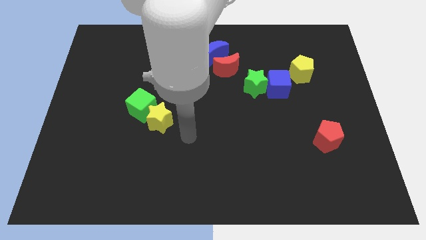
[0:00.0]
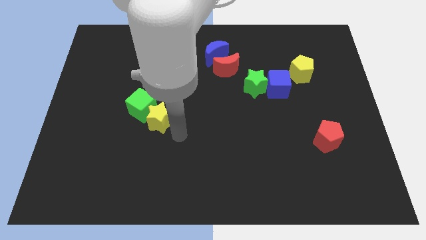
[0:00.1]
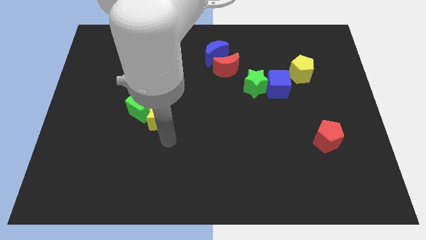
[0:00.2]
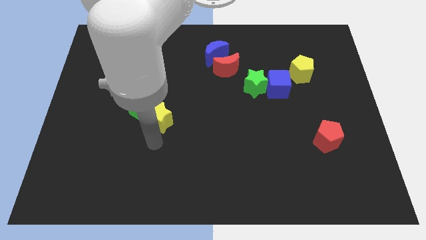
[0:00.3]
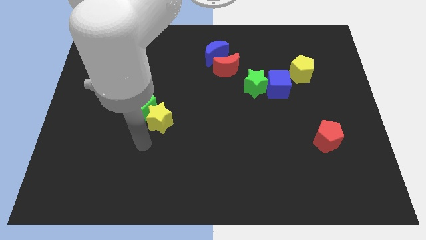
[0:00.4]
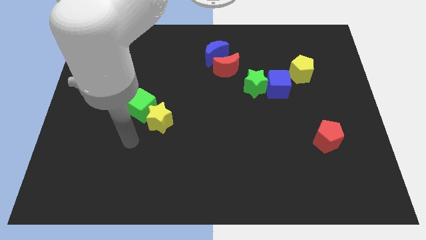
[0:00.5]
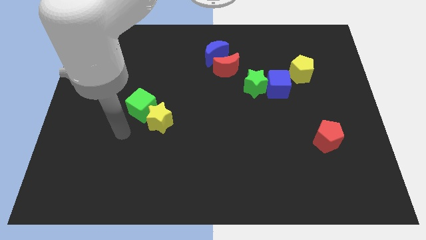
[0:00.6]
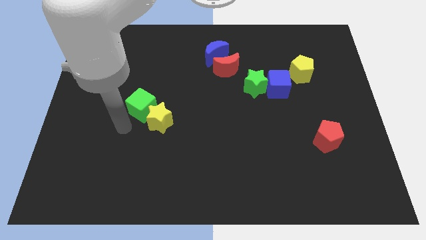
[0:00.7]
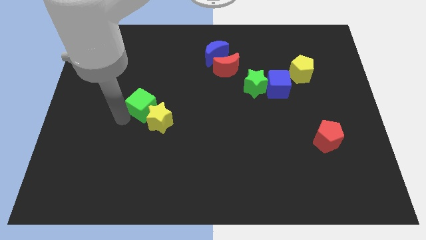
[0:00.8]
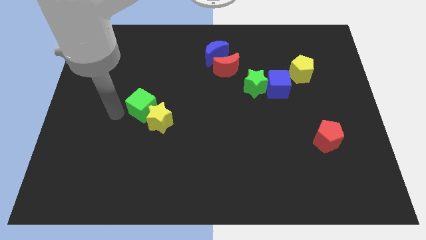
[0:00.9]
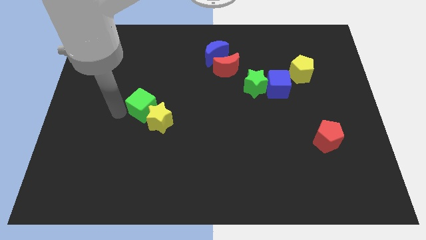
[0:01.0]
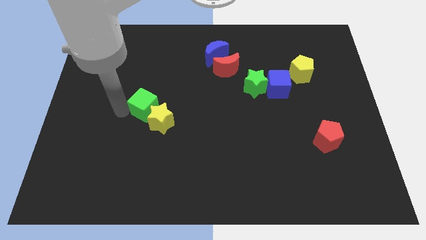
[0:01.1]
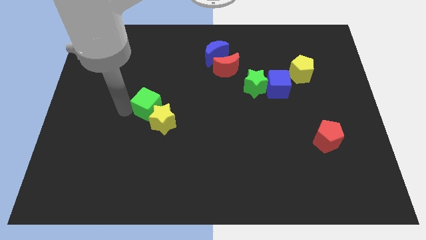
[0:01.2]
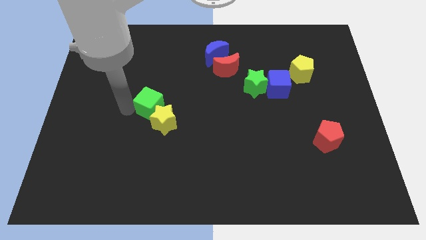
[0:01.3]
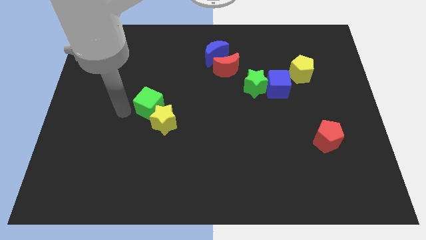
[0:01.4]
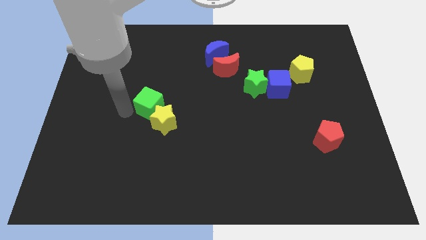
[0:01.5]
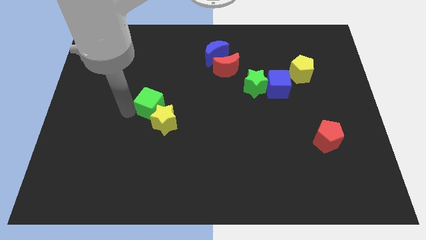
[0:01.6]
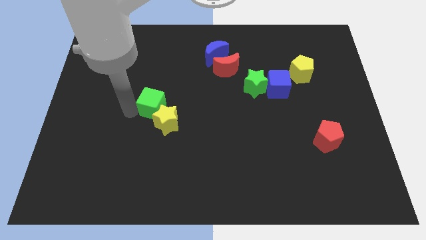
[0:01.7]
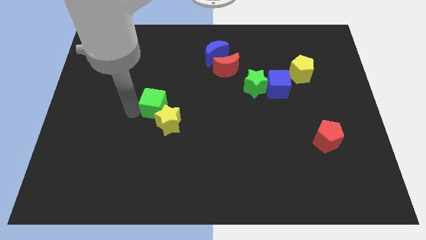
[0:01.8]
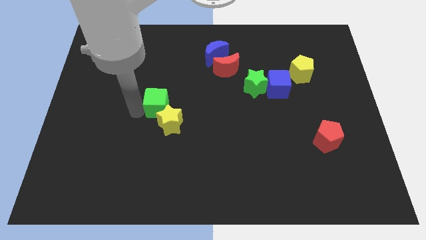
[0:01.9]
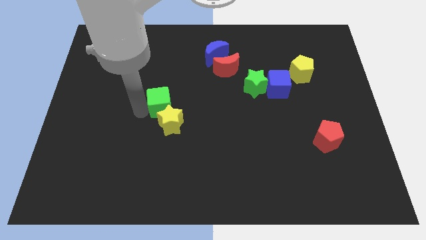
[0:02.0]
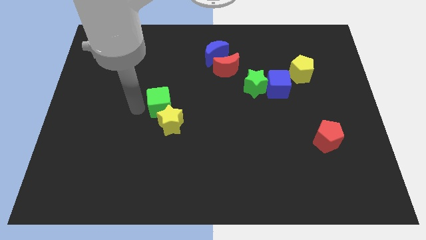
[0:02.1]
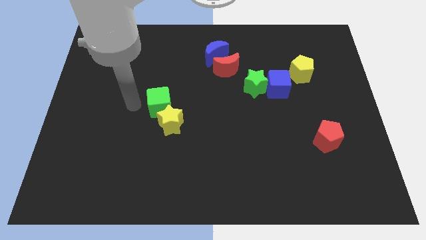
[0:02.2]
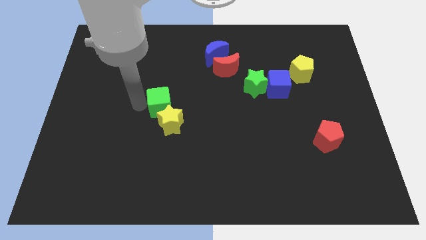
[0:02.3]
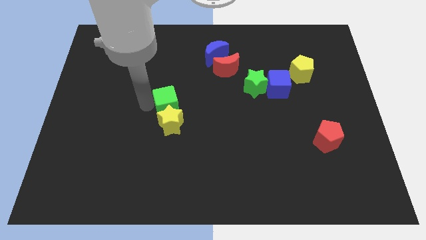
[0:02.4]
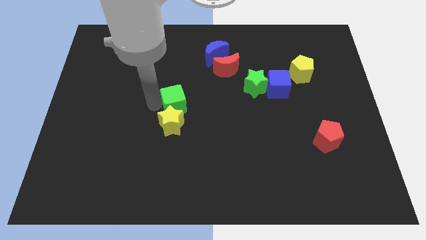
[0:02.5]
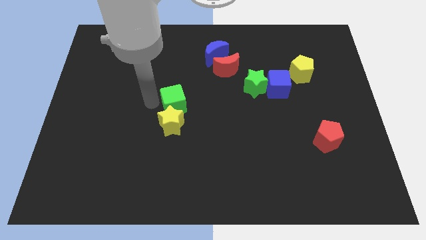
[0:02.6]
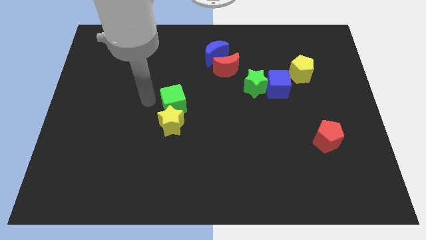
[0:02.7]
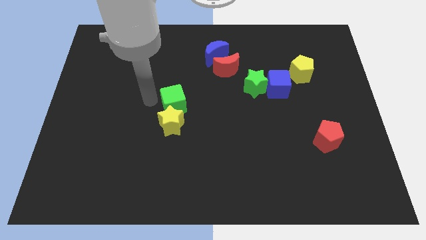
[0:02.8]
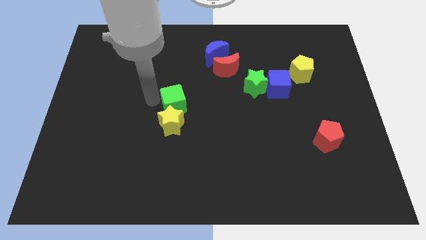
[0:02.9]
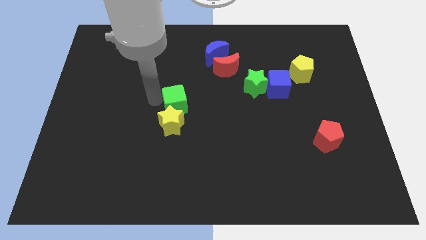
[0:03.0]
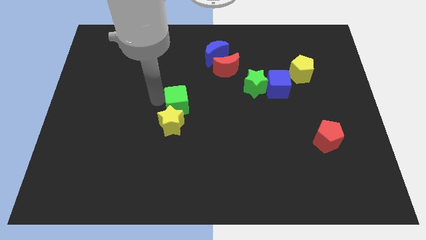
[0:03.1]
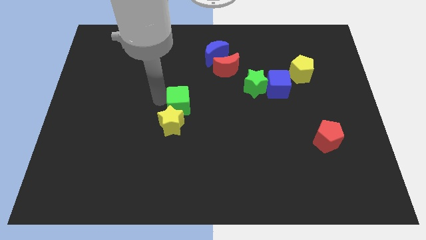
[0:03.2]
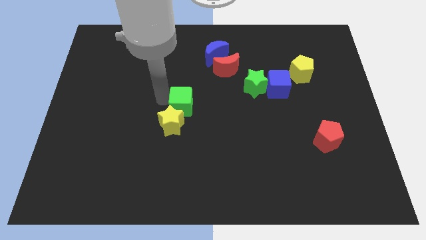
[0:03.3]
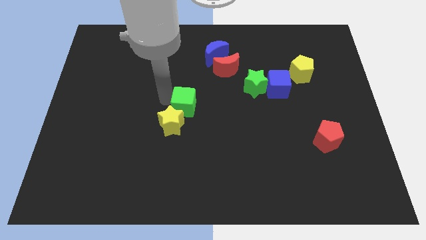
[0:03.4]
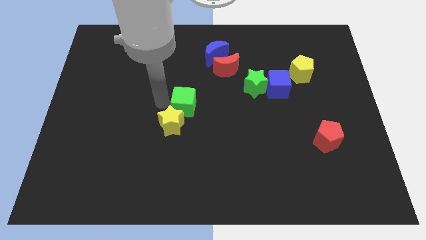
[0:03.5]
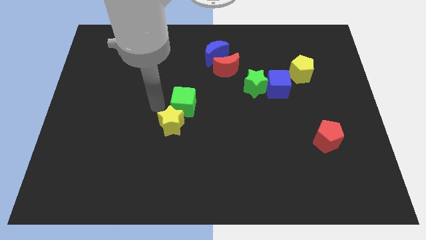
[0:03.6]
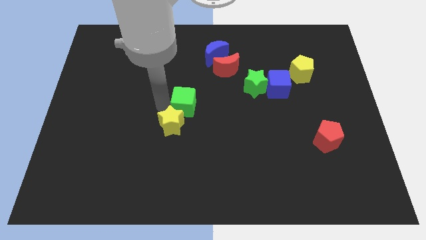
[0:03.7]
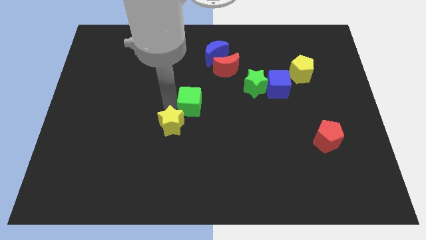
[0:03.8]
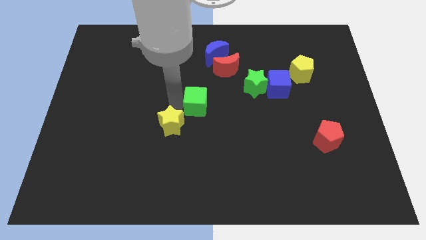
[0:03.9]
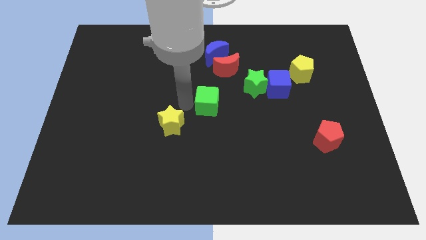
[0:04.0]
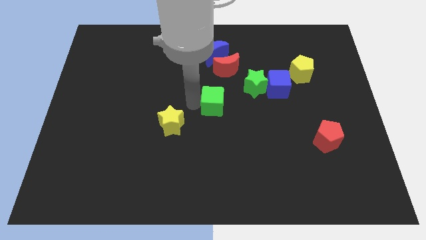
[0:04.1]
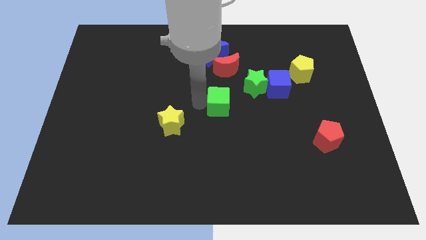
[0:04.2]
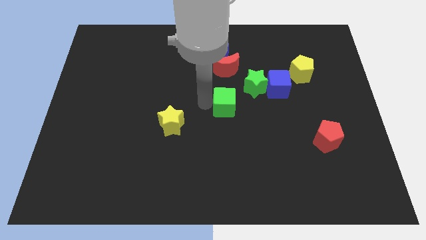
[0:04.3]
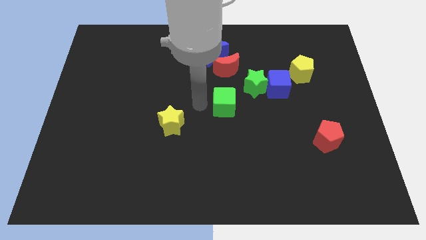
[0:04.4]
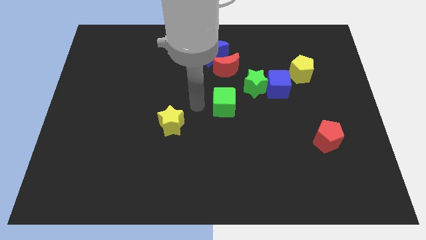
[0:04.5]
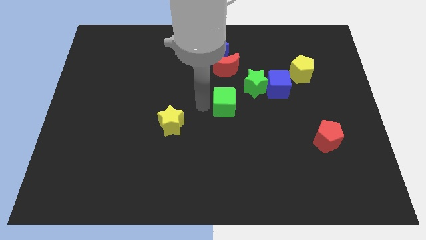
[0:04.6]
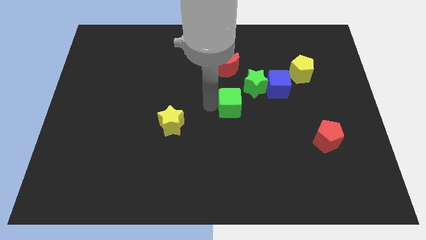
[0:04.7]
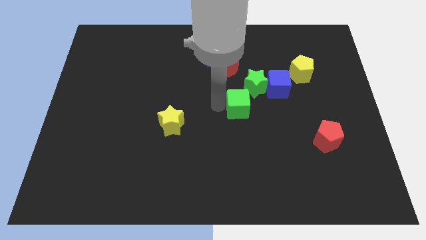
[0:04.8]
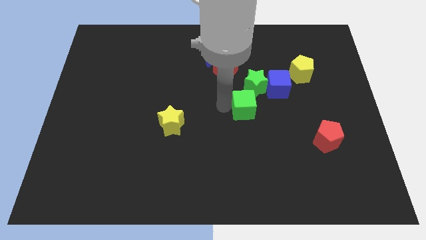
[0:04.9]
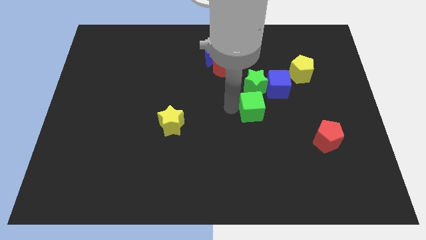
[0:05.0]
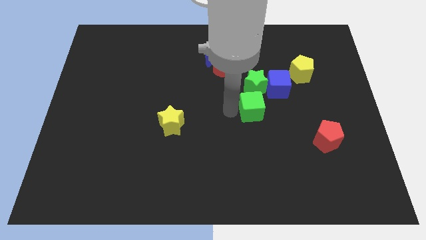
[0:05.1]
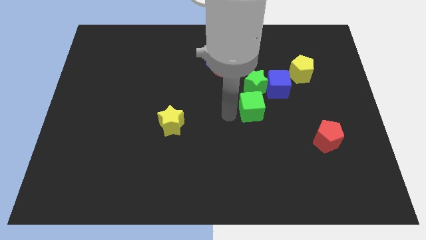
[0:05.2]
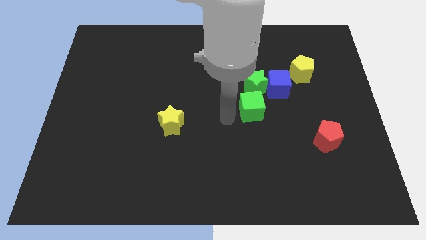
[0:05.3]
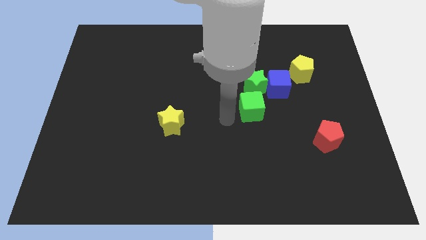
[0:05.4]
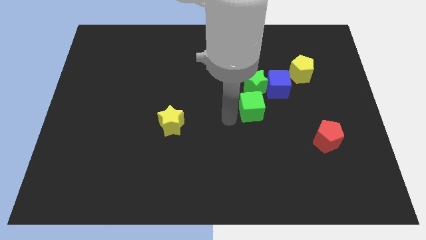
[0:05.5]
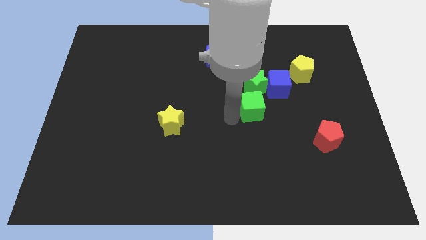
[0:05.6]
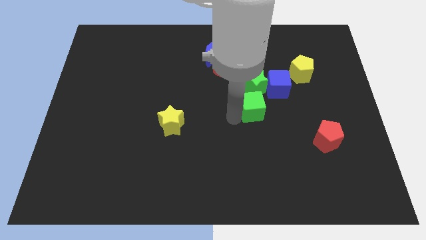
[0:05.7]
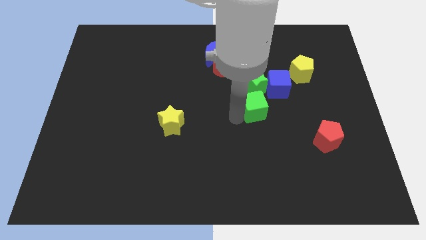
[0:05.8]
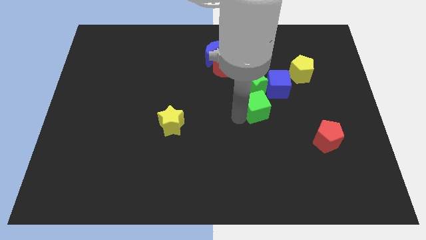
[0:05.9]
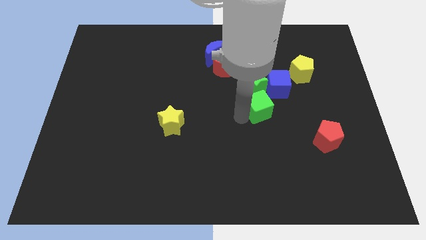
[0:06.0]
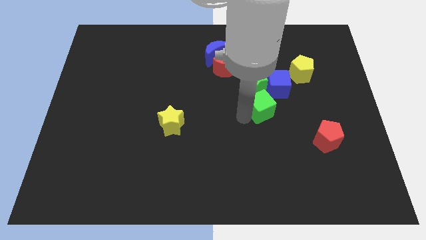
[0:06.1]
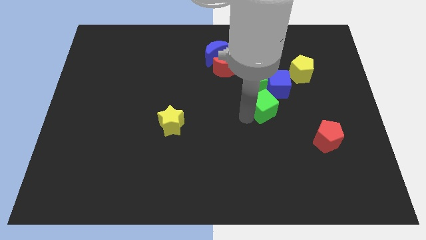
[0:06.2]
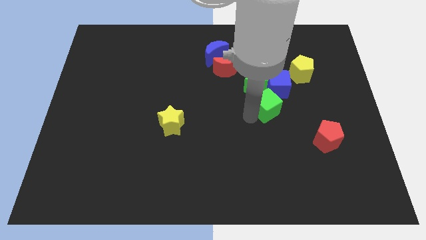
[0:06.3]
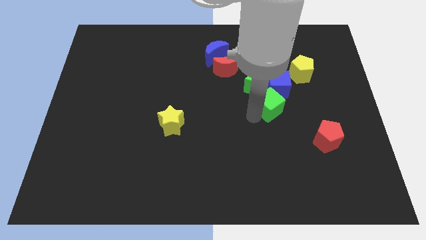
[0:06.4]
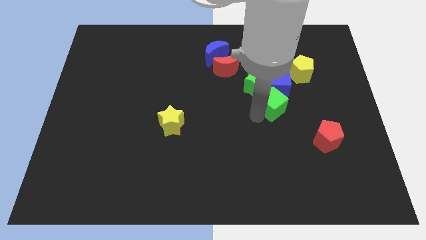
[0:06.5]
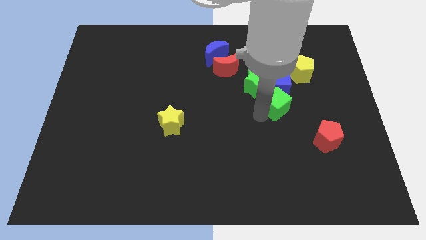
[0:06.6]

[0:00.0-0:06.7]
put the green cube next to the blue cube

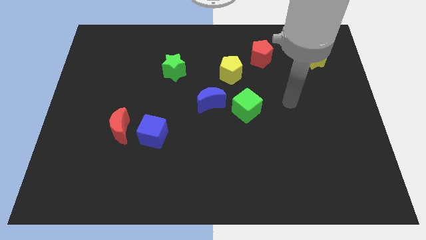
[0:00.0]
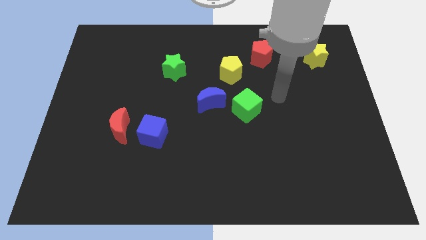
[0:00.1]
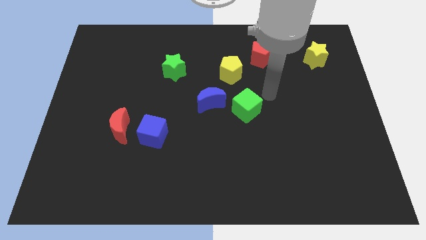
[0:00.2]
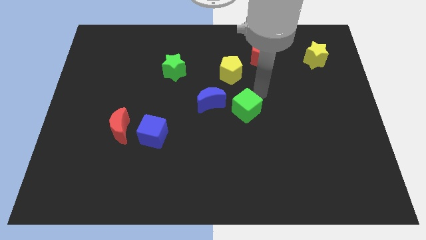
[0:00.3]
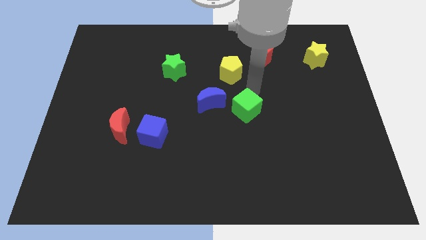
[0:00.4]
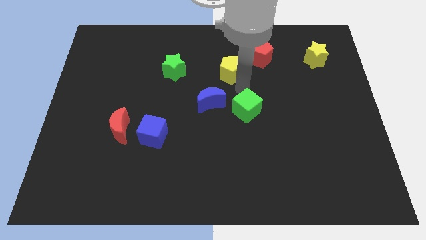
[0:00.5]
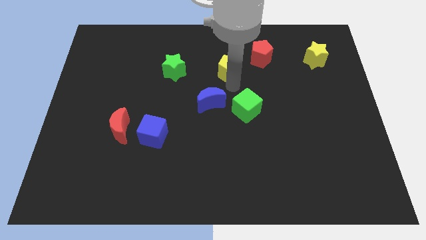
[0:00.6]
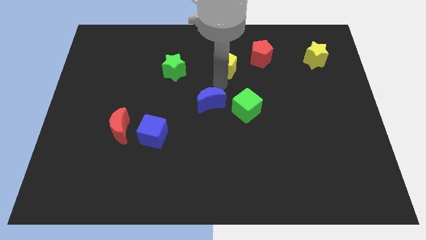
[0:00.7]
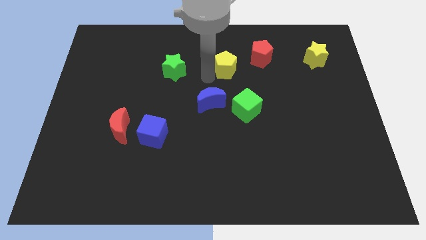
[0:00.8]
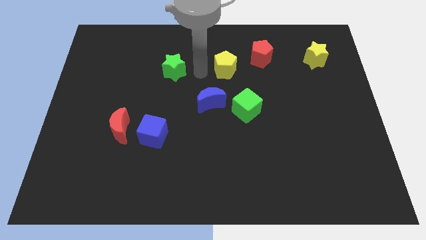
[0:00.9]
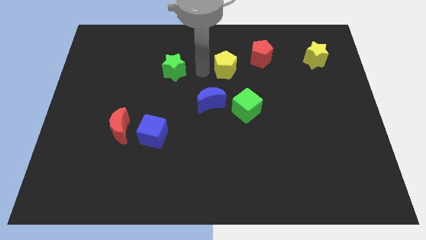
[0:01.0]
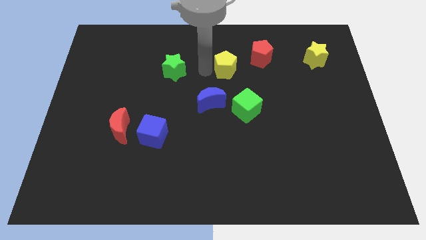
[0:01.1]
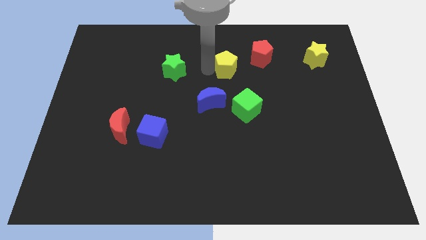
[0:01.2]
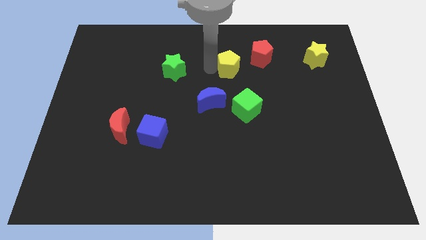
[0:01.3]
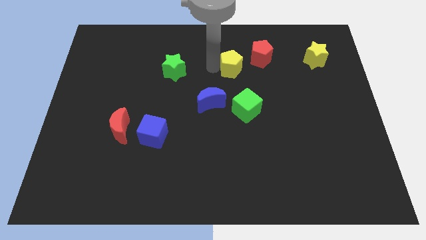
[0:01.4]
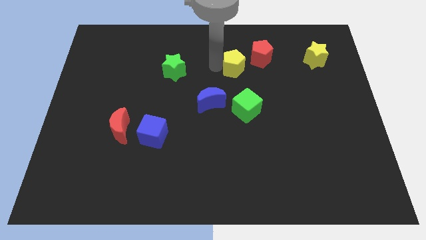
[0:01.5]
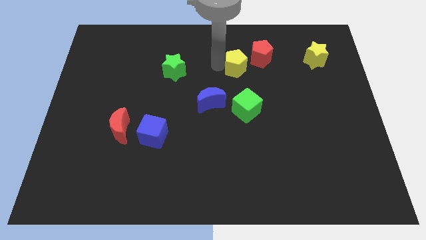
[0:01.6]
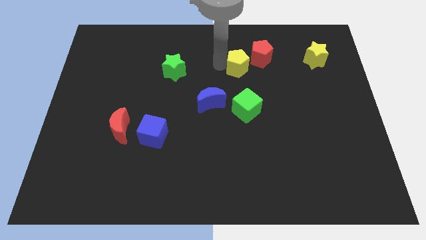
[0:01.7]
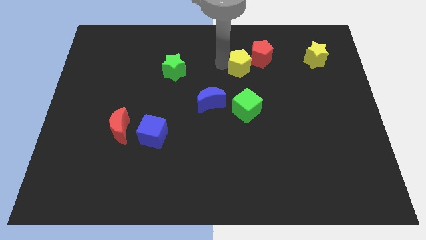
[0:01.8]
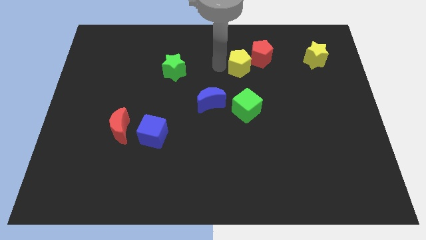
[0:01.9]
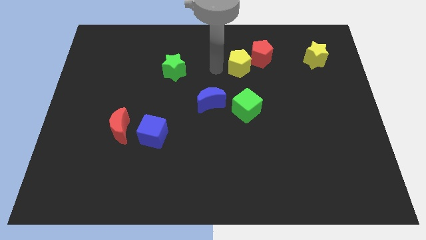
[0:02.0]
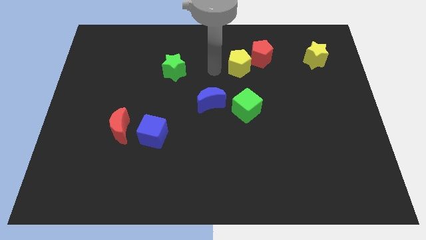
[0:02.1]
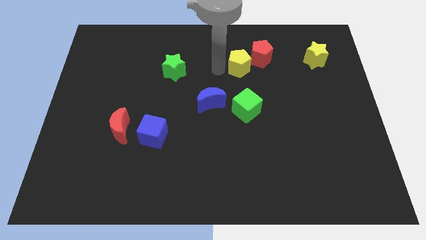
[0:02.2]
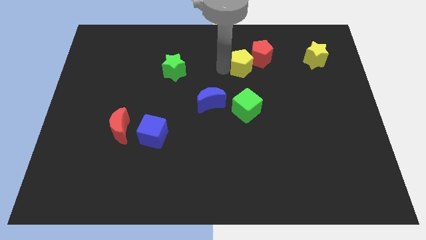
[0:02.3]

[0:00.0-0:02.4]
slide the yellow pentagon next to the red pentagon
